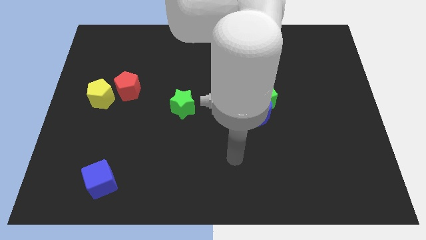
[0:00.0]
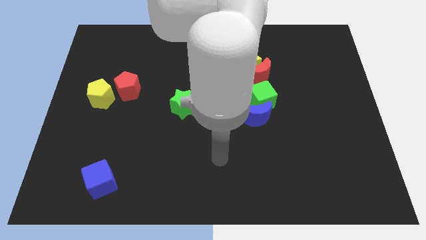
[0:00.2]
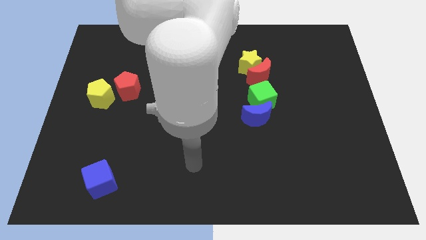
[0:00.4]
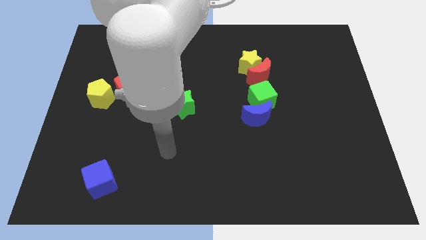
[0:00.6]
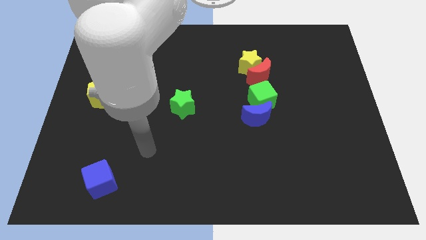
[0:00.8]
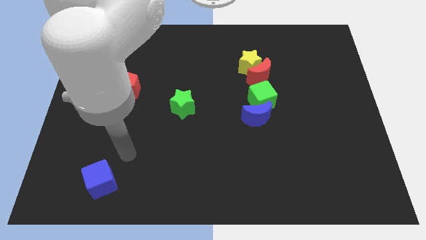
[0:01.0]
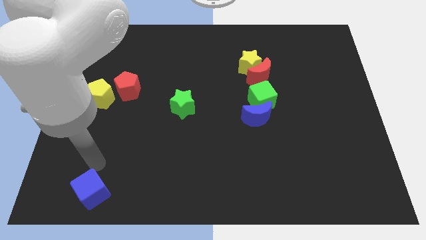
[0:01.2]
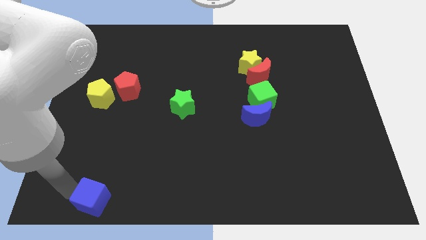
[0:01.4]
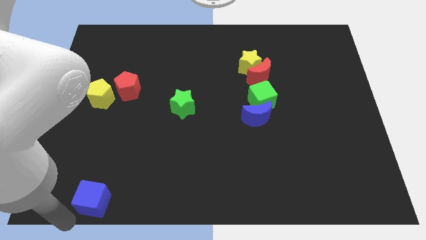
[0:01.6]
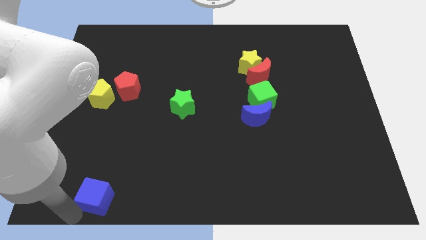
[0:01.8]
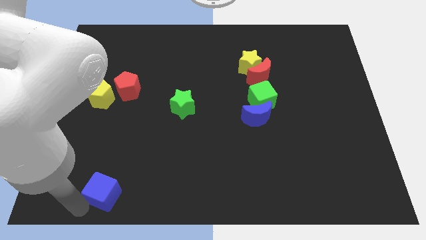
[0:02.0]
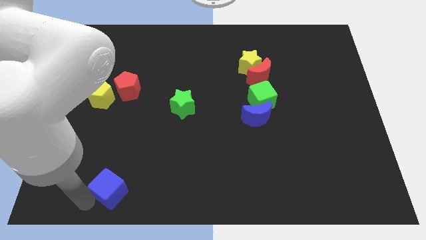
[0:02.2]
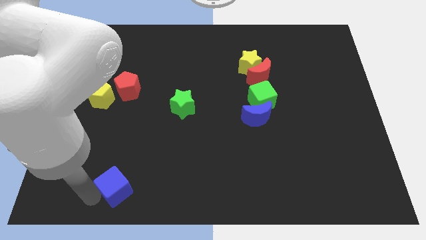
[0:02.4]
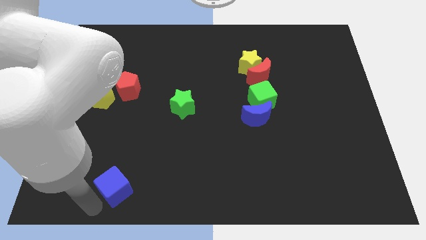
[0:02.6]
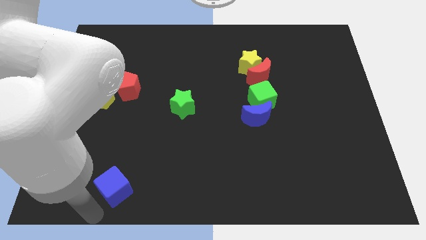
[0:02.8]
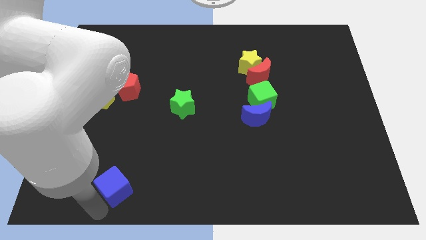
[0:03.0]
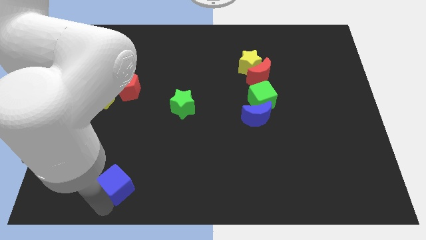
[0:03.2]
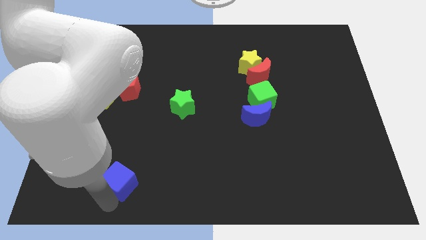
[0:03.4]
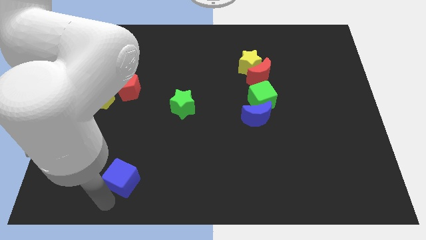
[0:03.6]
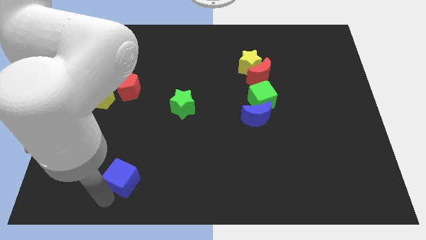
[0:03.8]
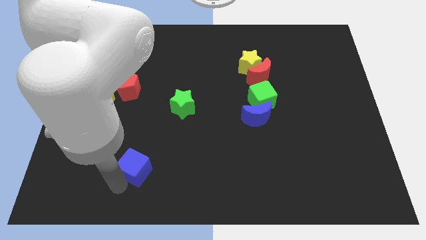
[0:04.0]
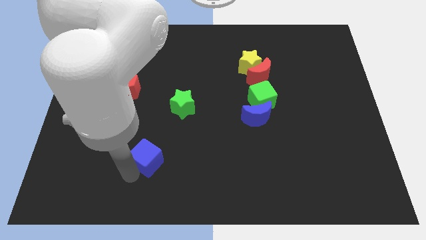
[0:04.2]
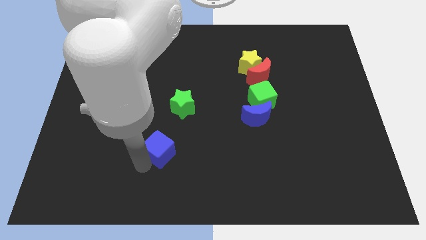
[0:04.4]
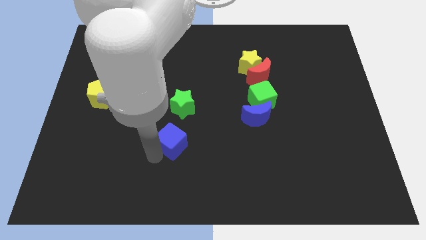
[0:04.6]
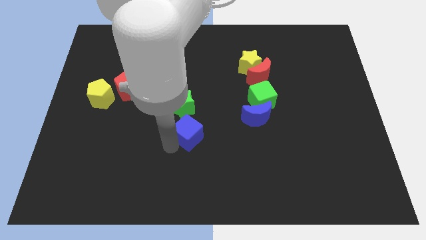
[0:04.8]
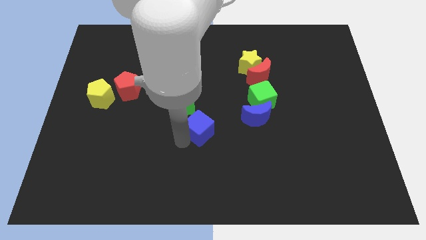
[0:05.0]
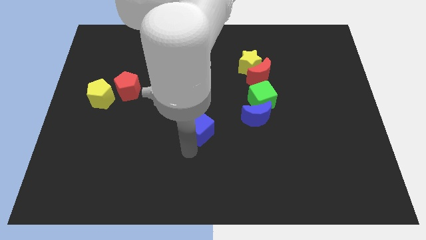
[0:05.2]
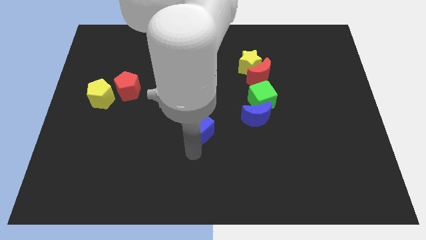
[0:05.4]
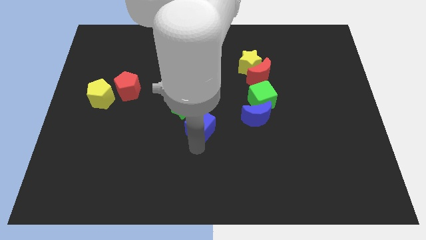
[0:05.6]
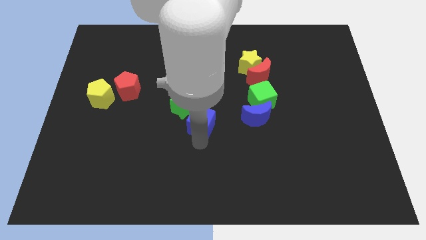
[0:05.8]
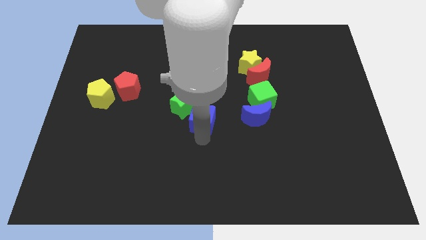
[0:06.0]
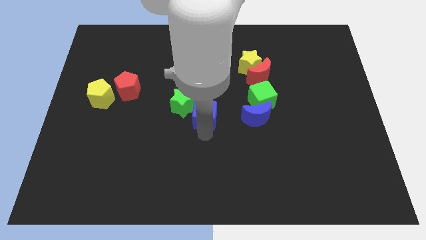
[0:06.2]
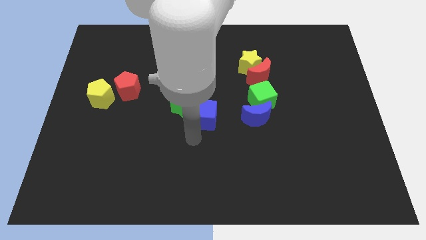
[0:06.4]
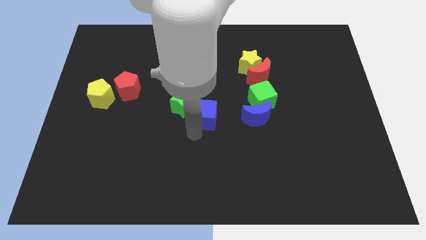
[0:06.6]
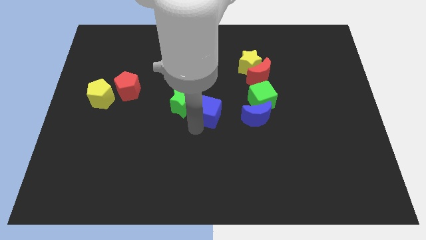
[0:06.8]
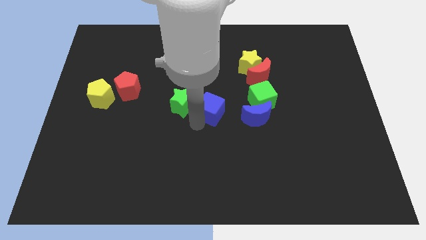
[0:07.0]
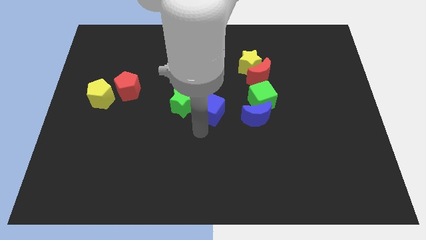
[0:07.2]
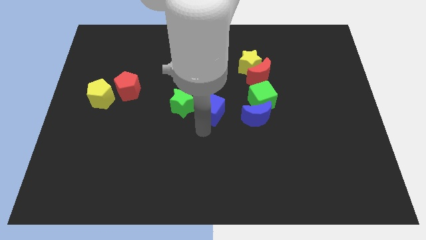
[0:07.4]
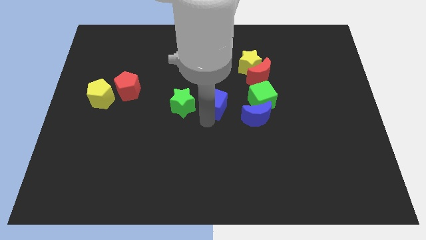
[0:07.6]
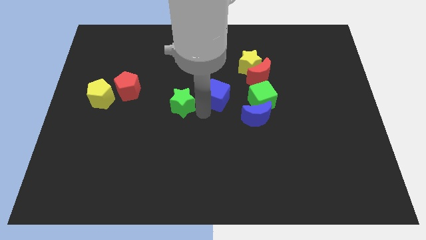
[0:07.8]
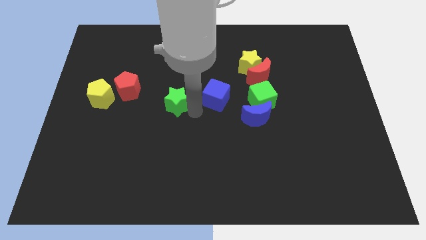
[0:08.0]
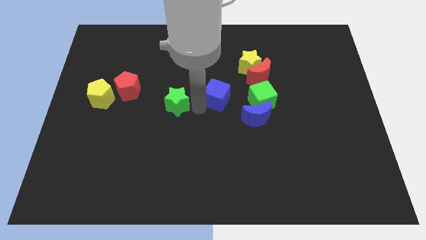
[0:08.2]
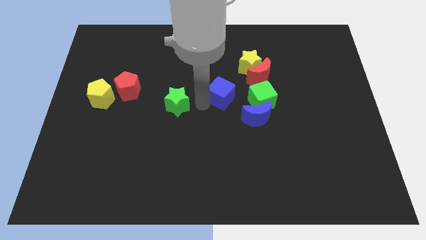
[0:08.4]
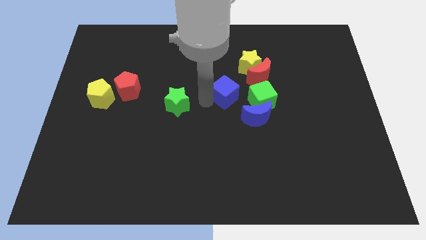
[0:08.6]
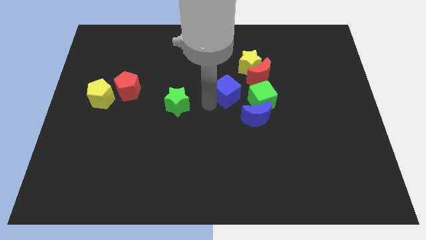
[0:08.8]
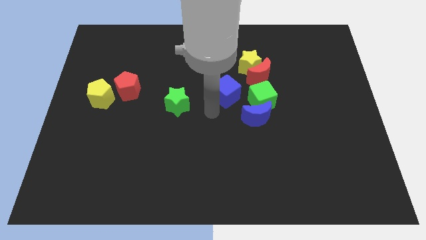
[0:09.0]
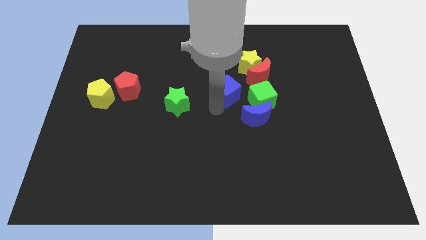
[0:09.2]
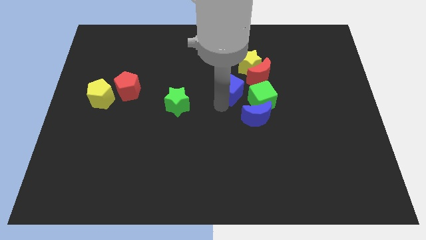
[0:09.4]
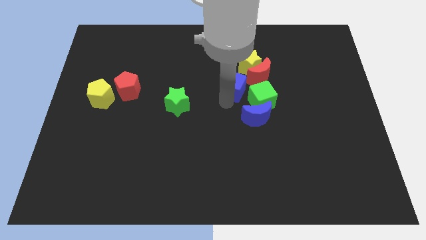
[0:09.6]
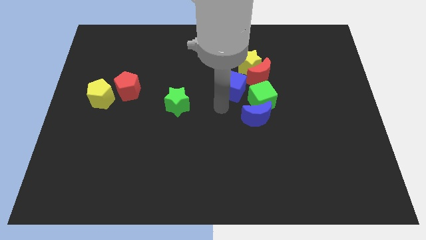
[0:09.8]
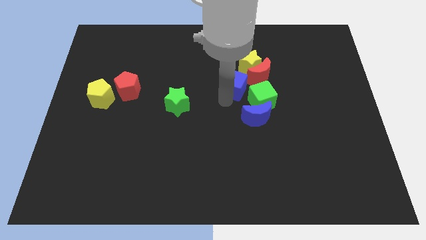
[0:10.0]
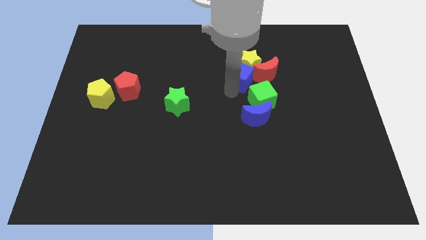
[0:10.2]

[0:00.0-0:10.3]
push the blue cube close to the yellow star

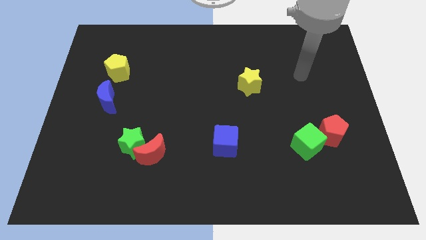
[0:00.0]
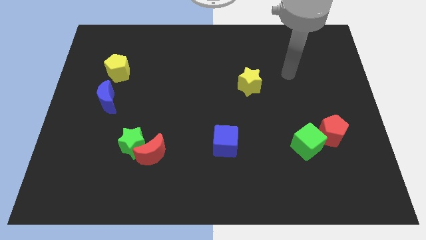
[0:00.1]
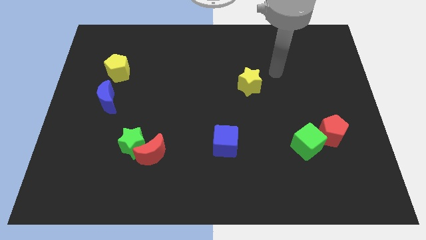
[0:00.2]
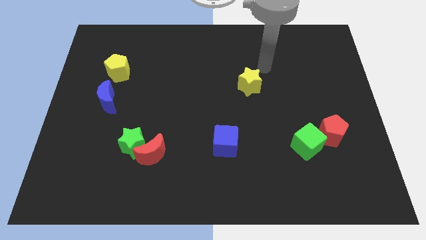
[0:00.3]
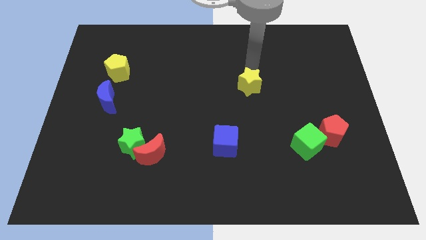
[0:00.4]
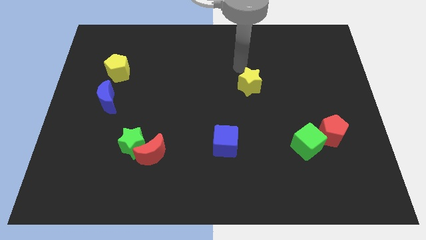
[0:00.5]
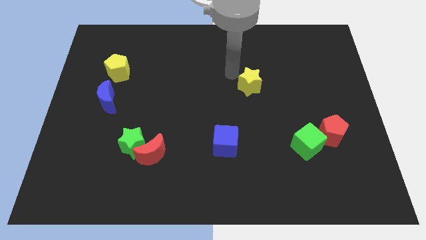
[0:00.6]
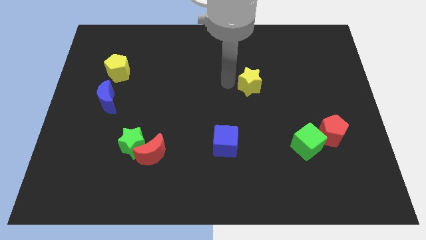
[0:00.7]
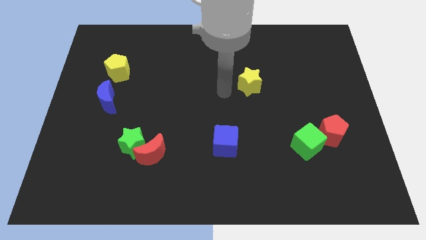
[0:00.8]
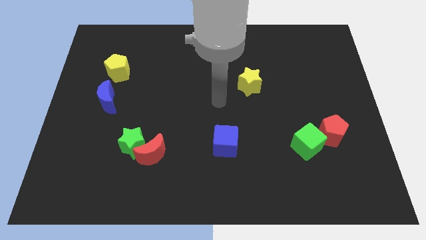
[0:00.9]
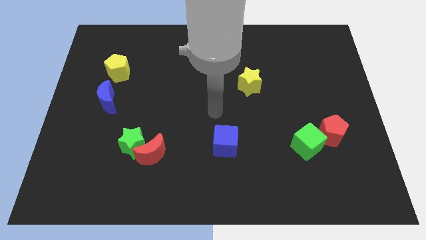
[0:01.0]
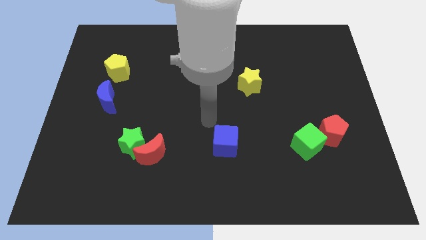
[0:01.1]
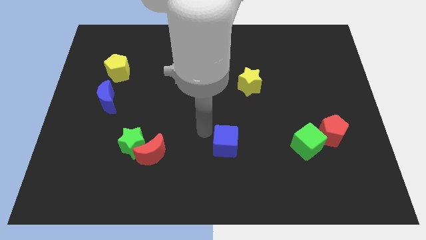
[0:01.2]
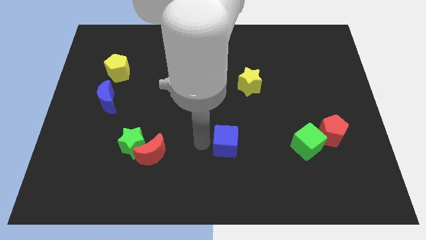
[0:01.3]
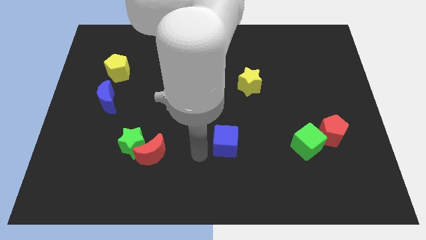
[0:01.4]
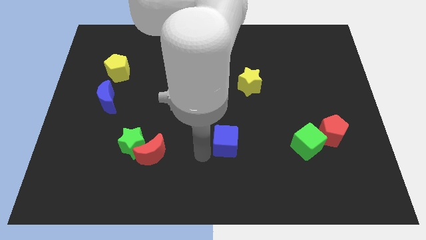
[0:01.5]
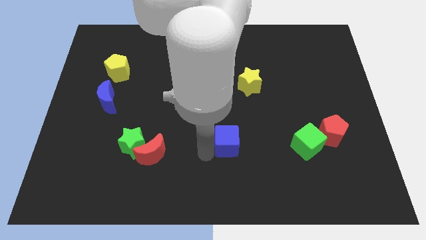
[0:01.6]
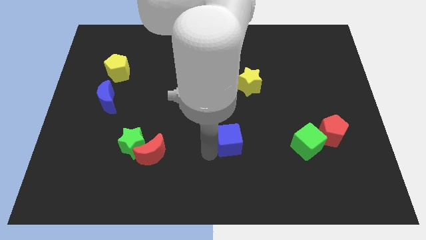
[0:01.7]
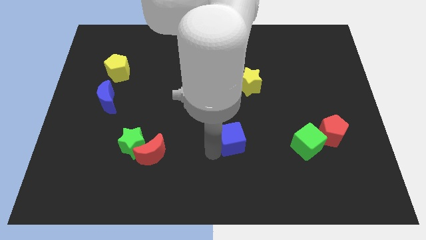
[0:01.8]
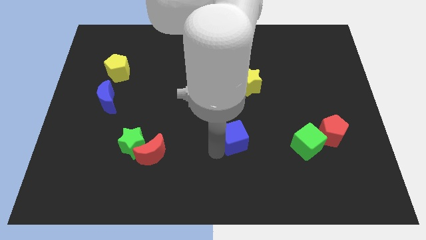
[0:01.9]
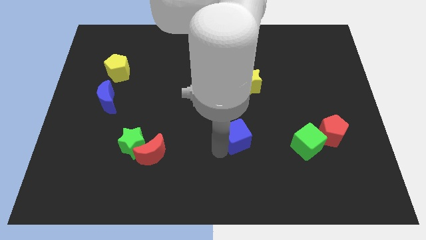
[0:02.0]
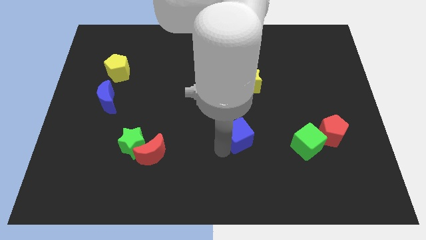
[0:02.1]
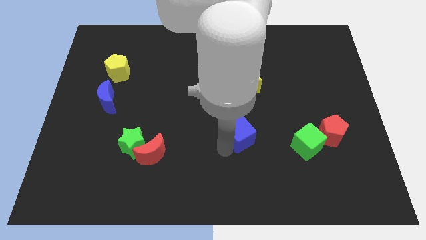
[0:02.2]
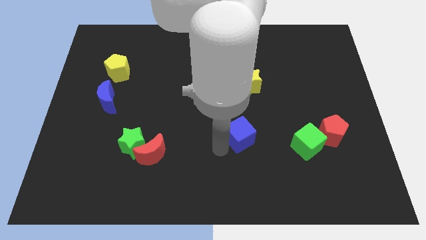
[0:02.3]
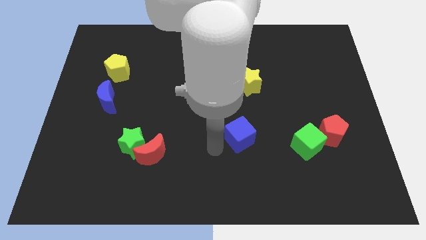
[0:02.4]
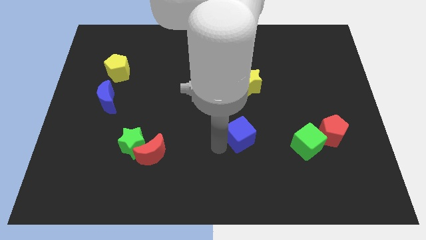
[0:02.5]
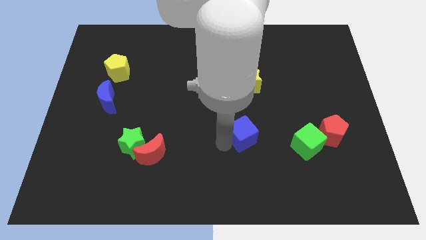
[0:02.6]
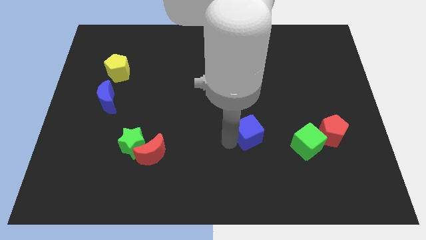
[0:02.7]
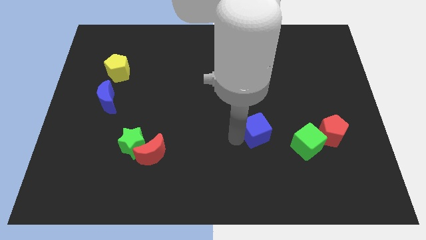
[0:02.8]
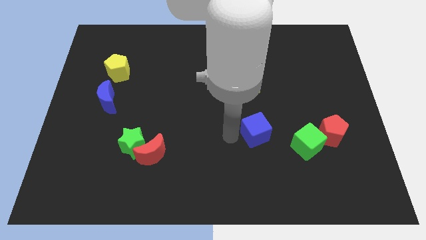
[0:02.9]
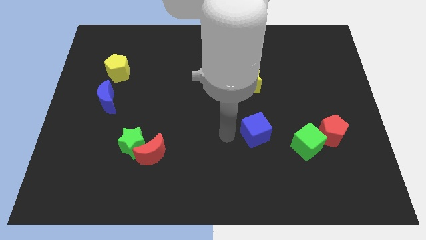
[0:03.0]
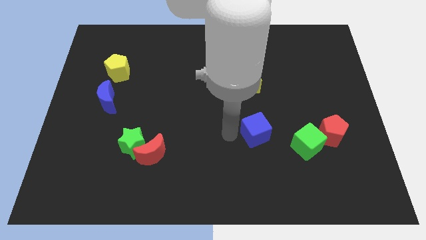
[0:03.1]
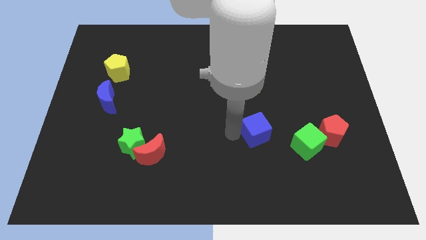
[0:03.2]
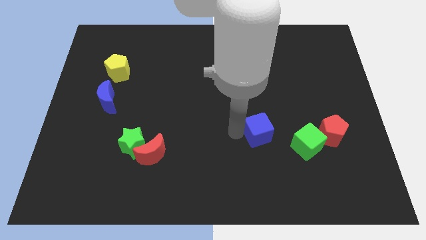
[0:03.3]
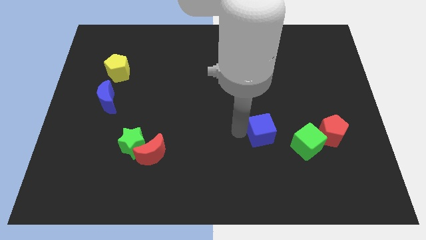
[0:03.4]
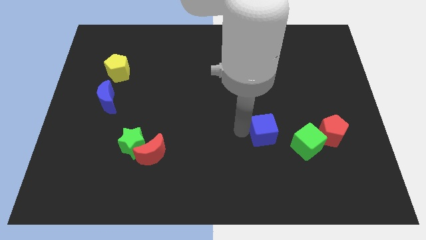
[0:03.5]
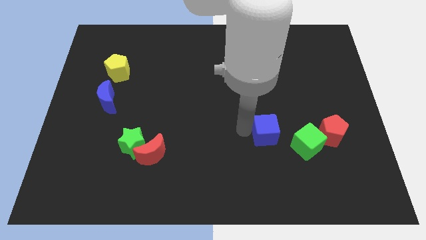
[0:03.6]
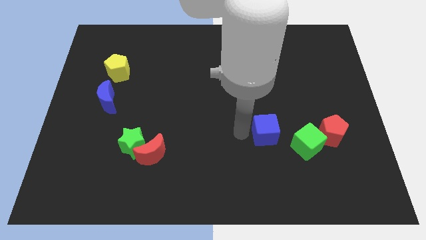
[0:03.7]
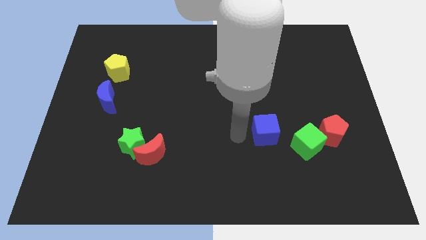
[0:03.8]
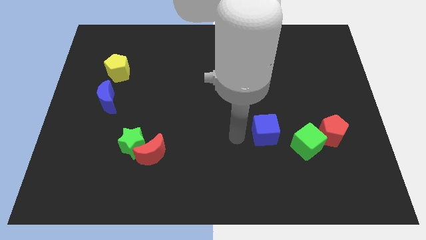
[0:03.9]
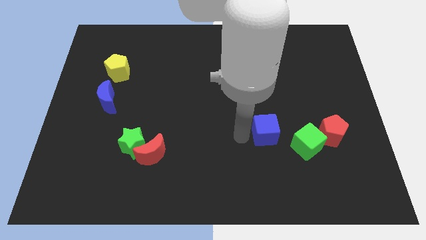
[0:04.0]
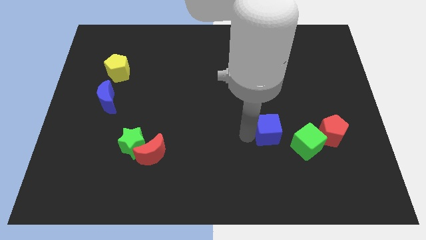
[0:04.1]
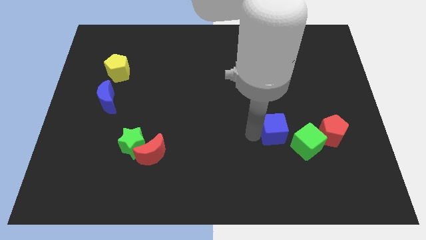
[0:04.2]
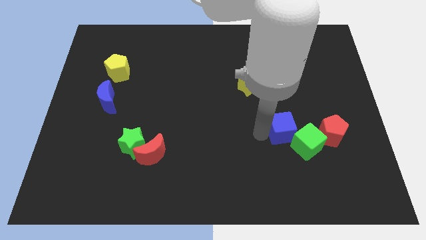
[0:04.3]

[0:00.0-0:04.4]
move the blue cube next to the green cube
